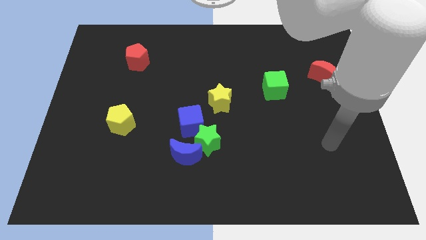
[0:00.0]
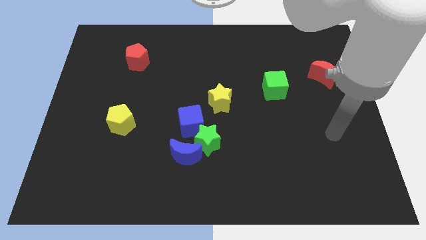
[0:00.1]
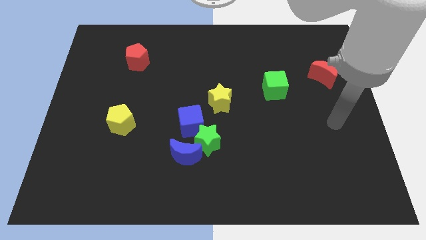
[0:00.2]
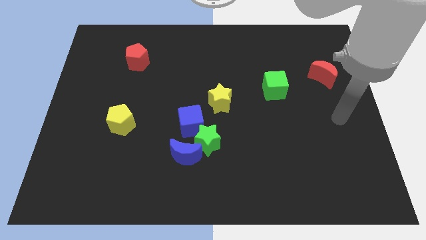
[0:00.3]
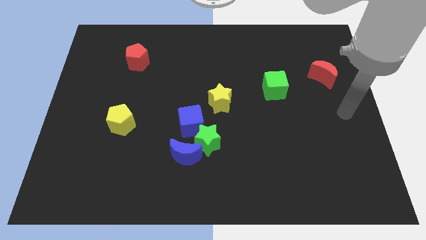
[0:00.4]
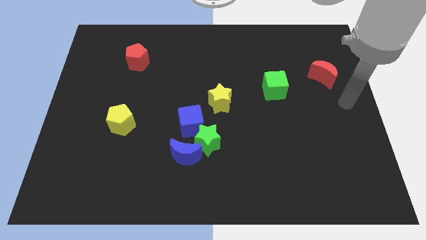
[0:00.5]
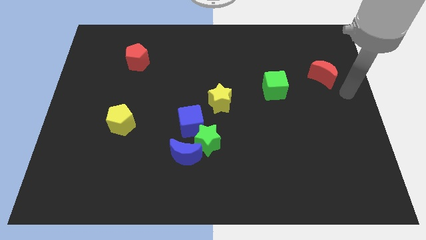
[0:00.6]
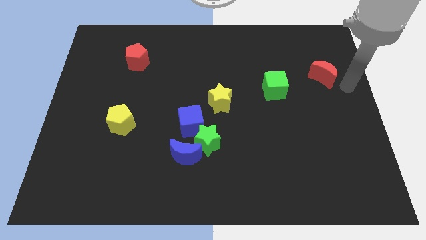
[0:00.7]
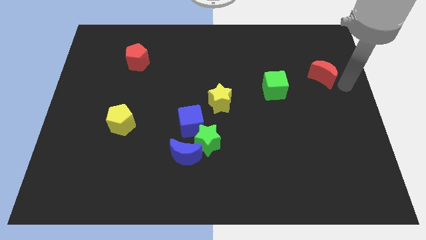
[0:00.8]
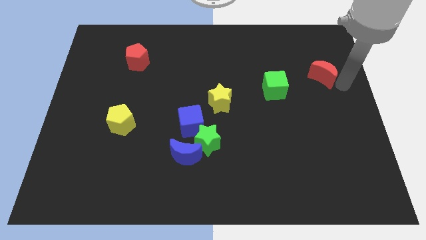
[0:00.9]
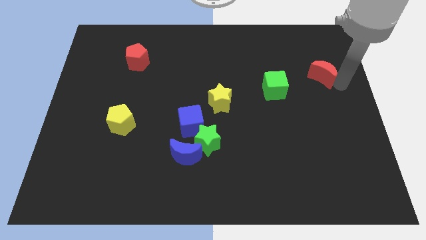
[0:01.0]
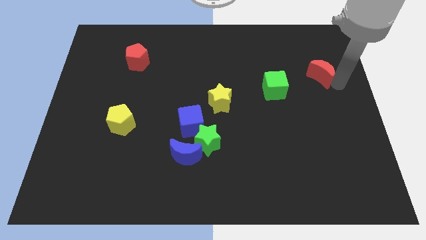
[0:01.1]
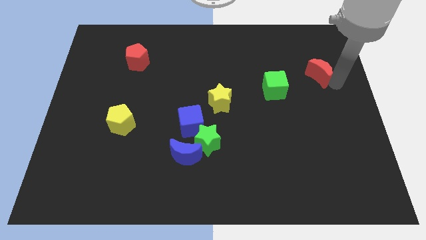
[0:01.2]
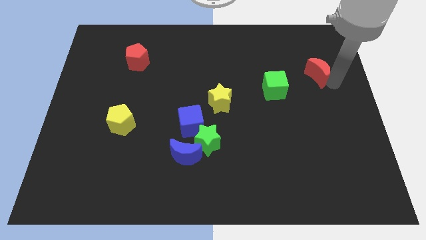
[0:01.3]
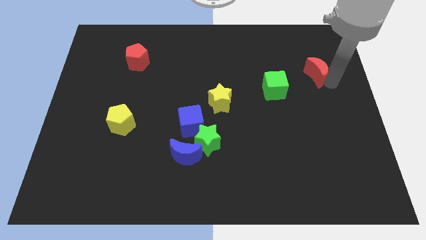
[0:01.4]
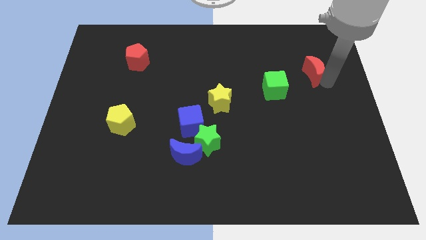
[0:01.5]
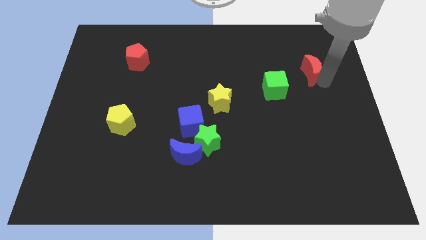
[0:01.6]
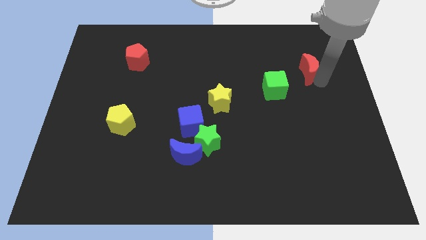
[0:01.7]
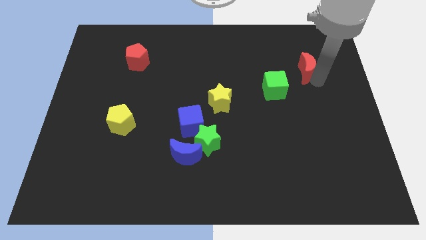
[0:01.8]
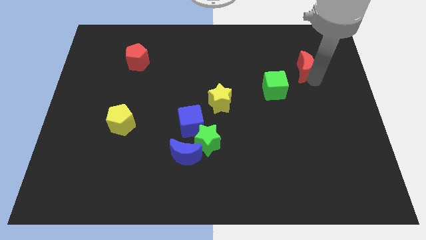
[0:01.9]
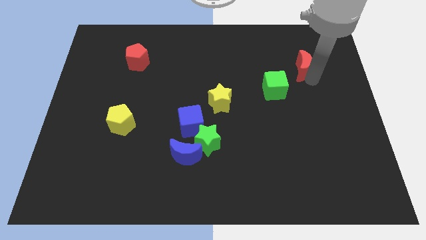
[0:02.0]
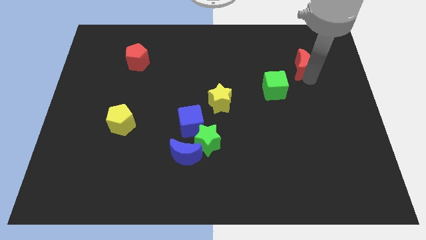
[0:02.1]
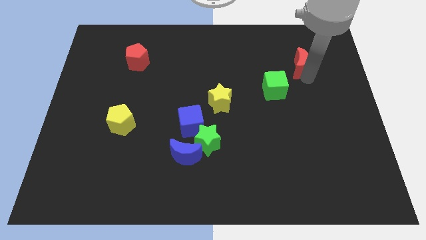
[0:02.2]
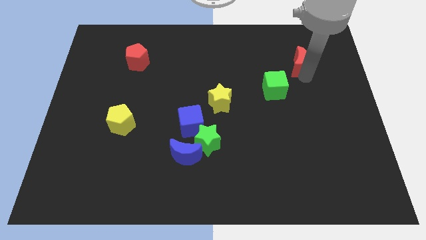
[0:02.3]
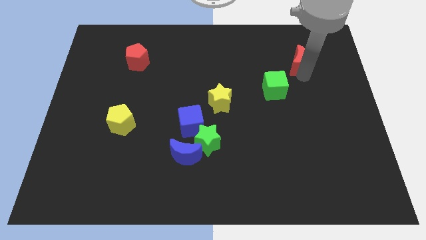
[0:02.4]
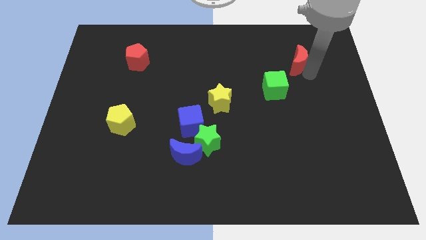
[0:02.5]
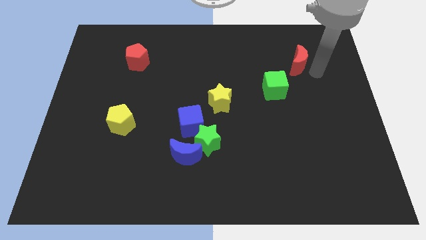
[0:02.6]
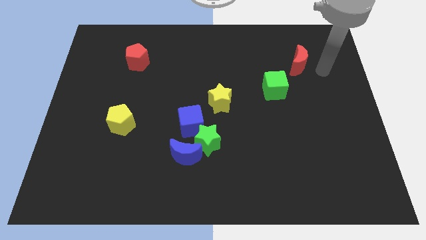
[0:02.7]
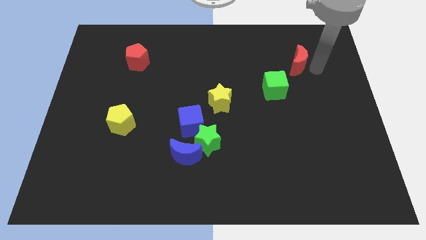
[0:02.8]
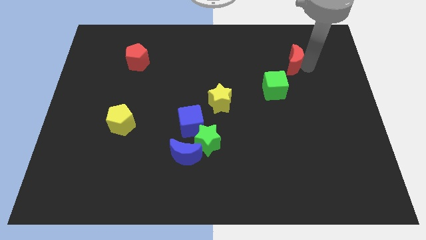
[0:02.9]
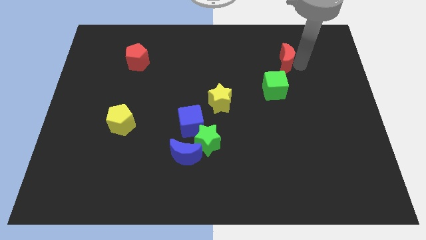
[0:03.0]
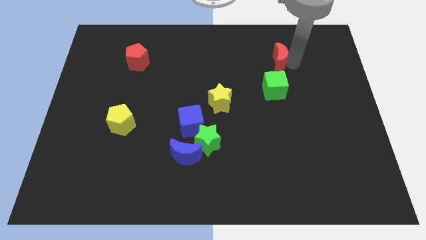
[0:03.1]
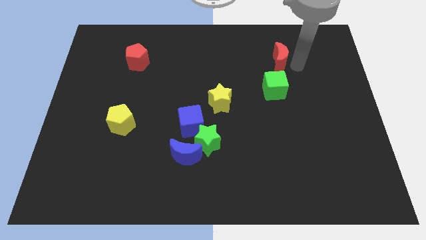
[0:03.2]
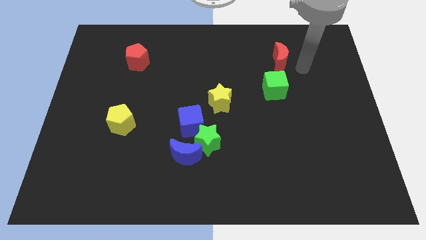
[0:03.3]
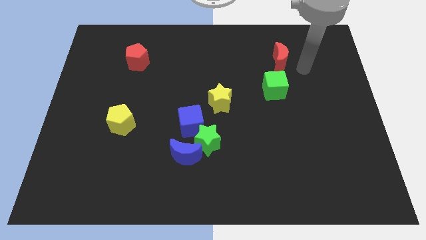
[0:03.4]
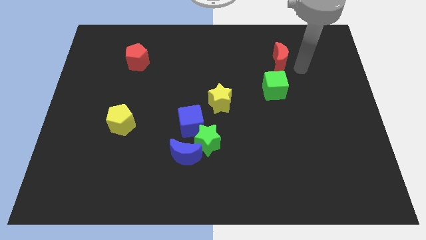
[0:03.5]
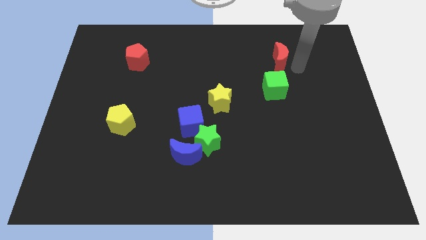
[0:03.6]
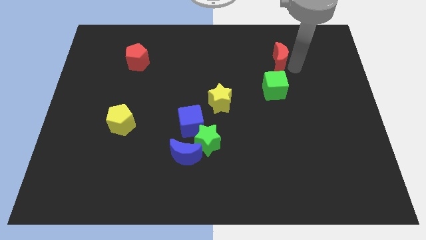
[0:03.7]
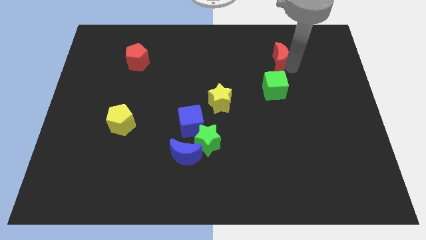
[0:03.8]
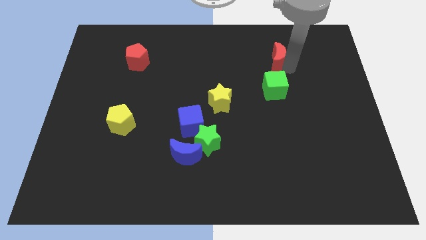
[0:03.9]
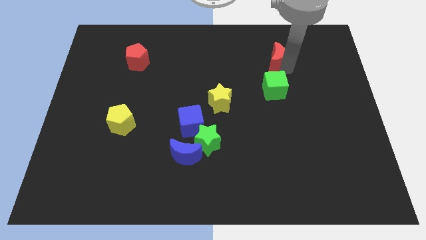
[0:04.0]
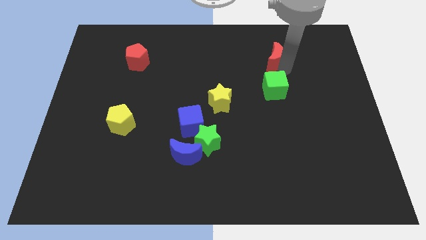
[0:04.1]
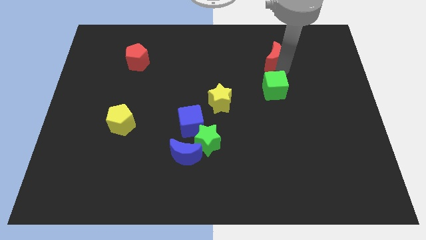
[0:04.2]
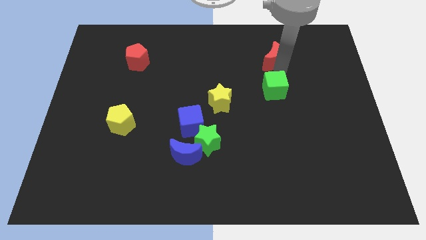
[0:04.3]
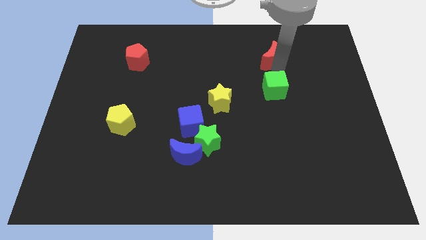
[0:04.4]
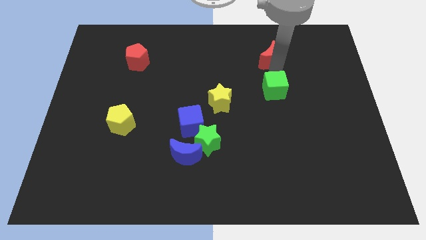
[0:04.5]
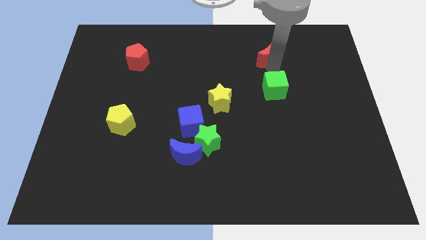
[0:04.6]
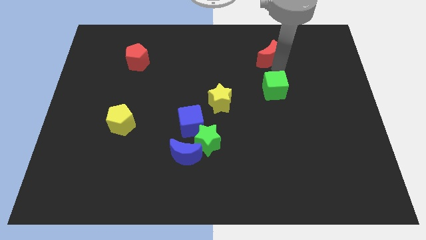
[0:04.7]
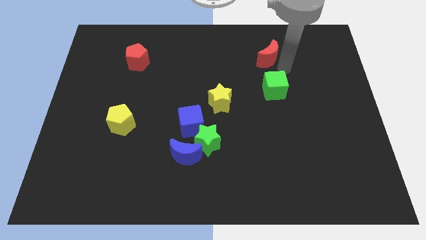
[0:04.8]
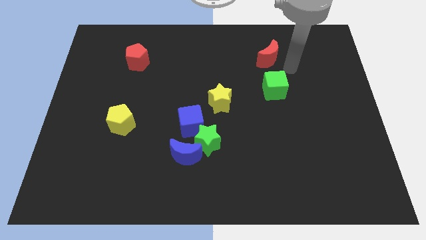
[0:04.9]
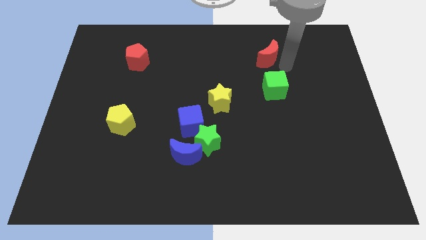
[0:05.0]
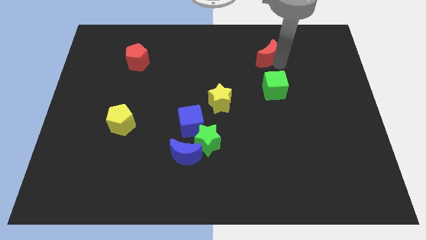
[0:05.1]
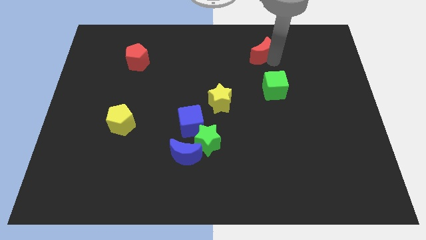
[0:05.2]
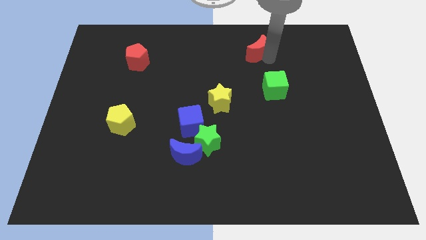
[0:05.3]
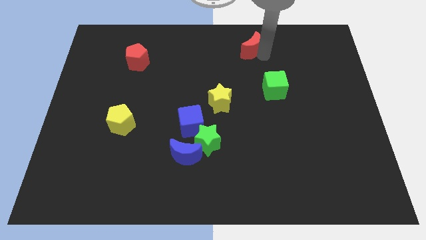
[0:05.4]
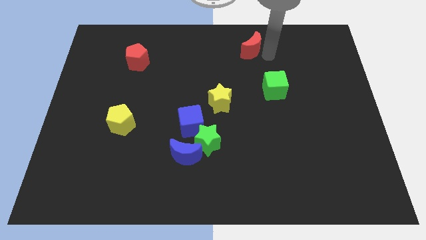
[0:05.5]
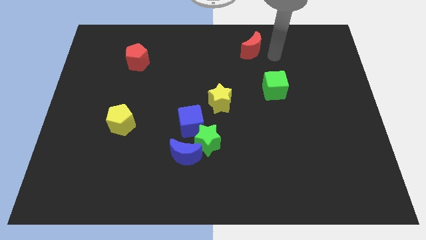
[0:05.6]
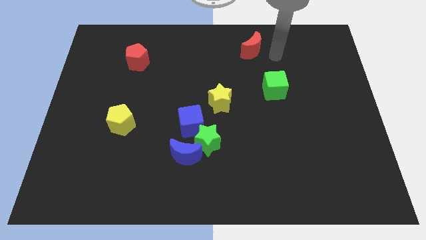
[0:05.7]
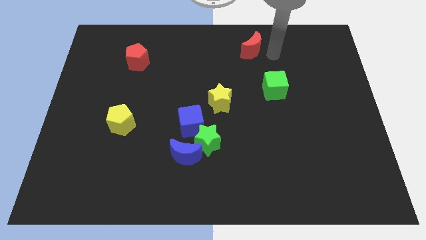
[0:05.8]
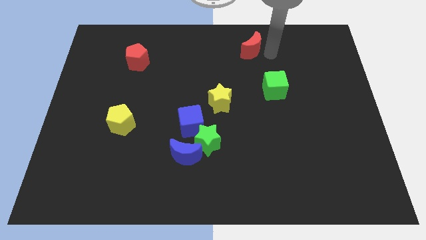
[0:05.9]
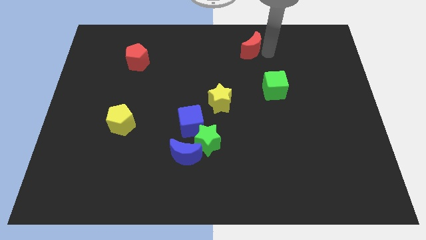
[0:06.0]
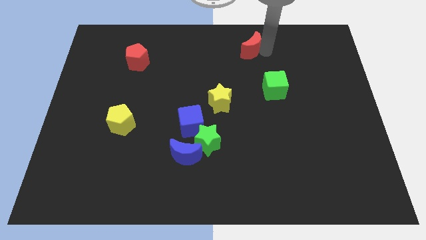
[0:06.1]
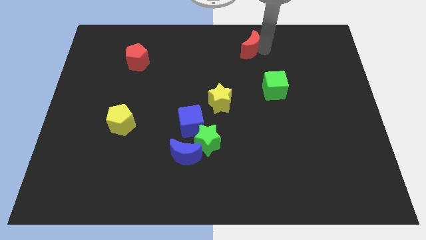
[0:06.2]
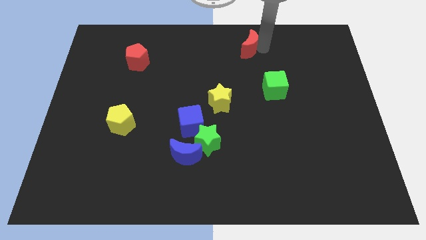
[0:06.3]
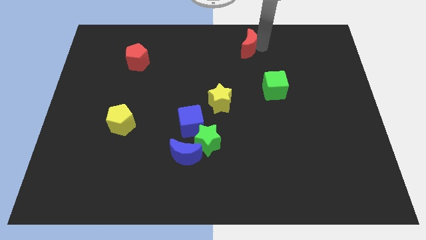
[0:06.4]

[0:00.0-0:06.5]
push the red moon to the top side
